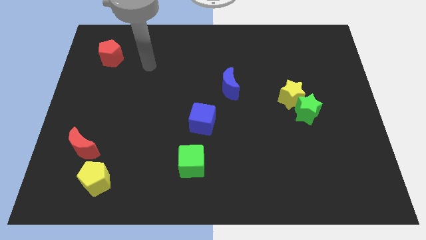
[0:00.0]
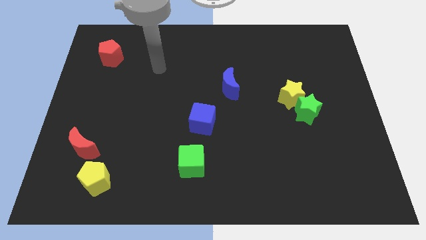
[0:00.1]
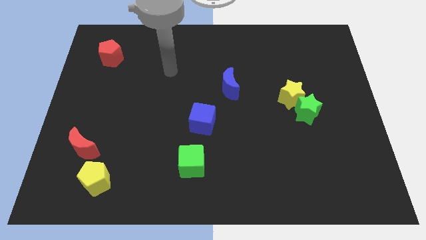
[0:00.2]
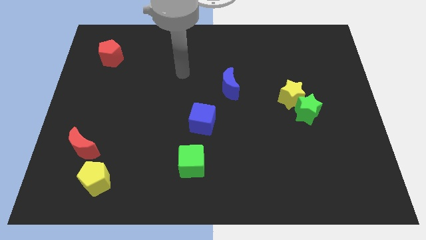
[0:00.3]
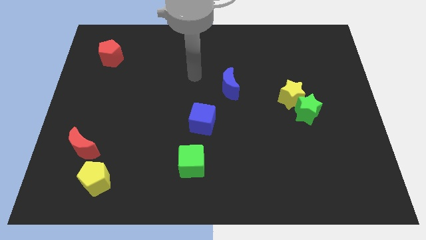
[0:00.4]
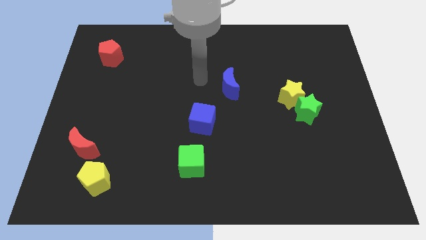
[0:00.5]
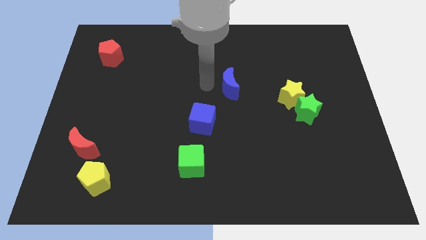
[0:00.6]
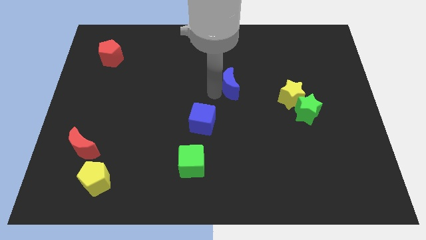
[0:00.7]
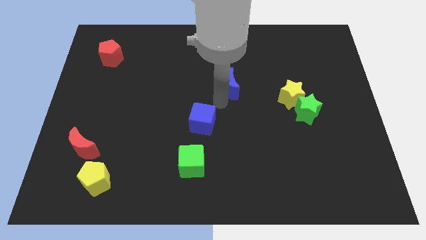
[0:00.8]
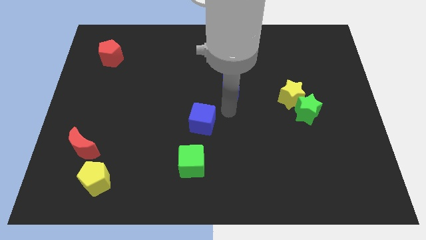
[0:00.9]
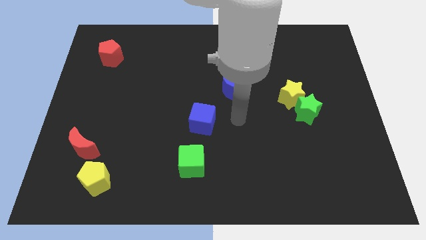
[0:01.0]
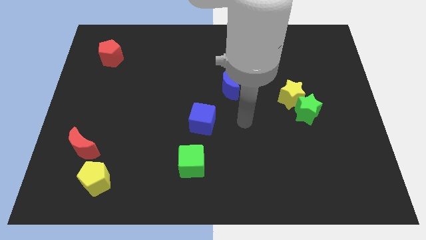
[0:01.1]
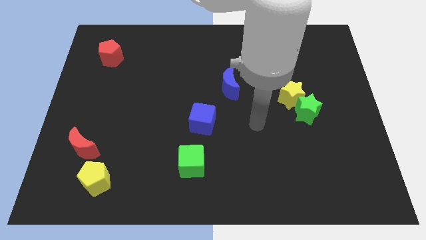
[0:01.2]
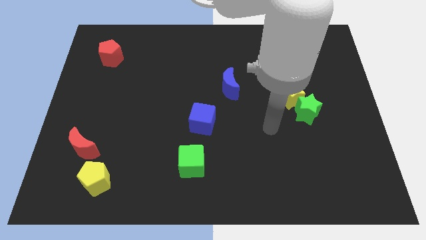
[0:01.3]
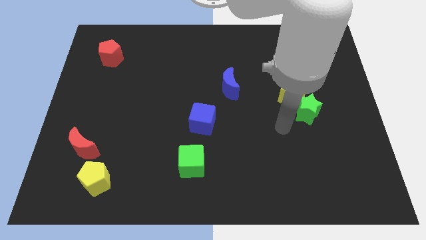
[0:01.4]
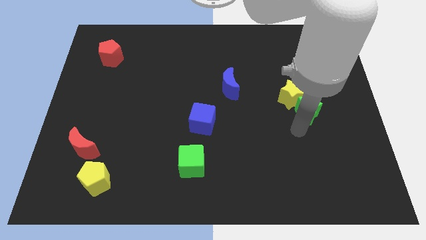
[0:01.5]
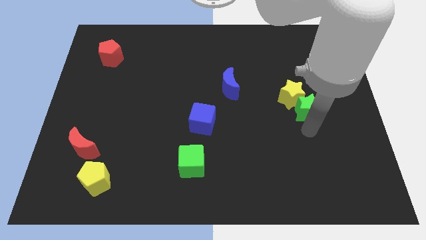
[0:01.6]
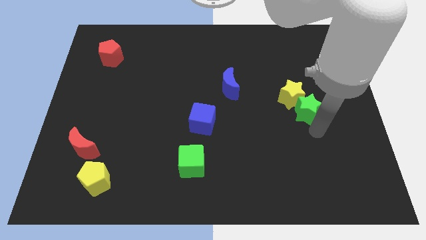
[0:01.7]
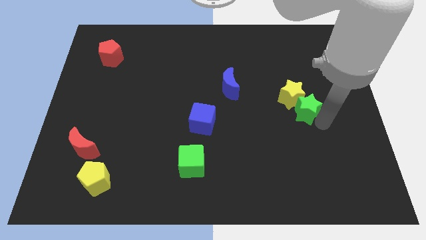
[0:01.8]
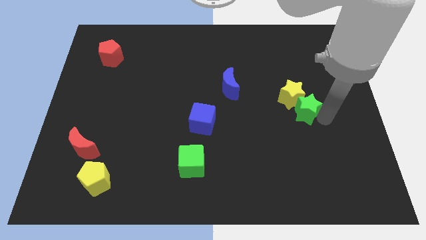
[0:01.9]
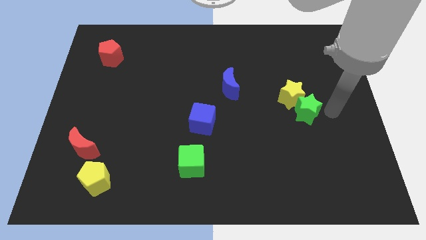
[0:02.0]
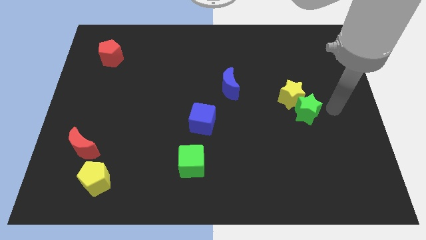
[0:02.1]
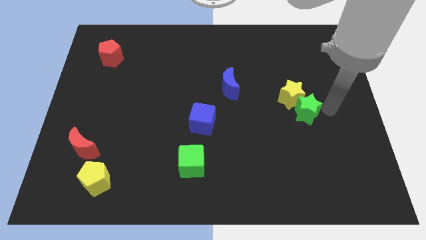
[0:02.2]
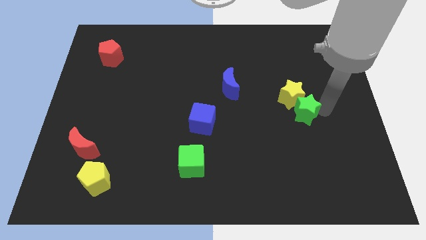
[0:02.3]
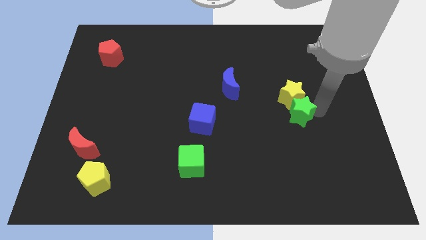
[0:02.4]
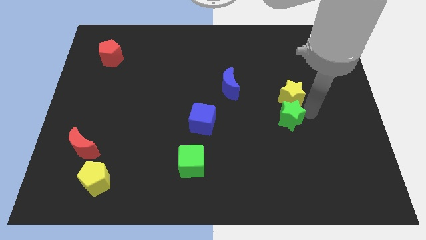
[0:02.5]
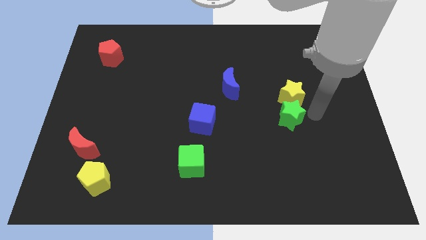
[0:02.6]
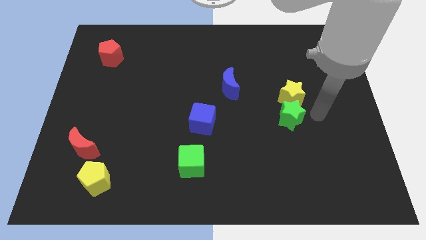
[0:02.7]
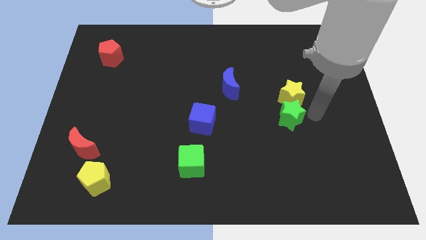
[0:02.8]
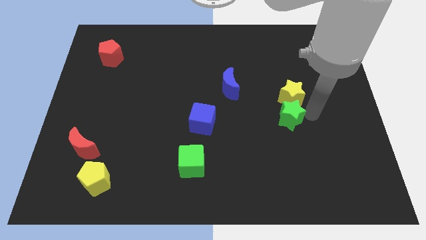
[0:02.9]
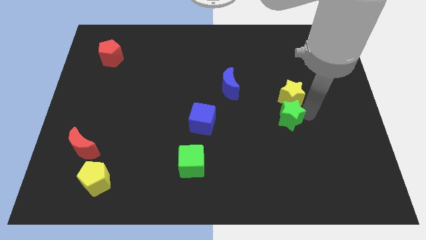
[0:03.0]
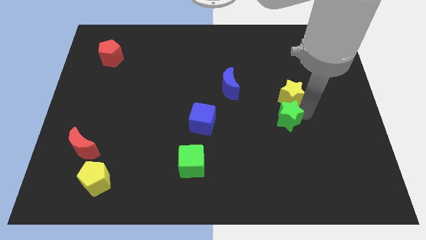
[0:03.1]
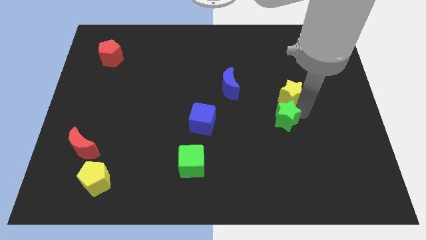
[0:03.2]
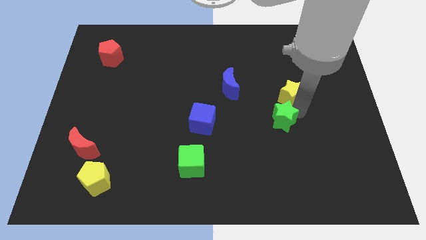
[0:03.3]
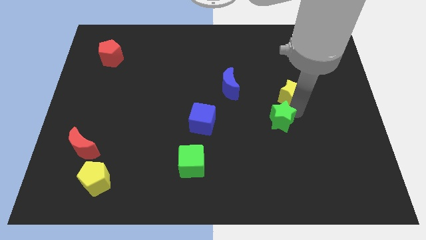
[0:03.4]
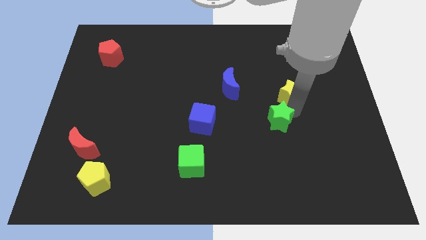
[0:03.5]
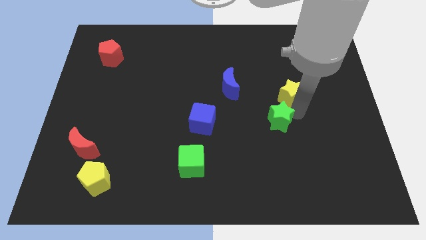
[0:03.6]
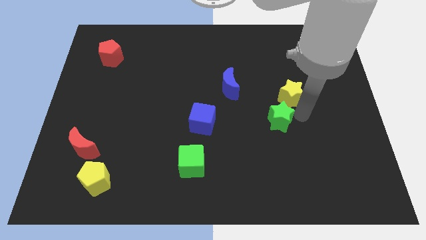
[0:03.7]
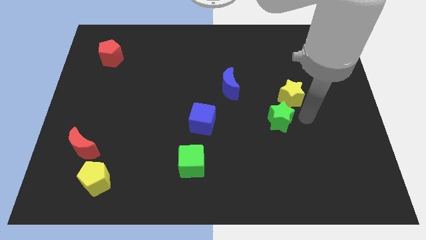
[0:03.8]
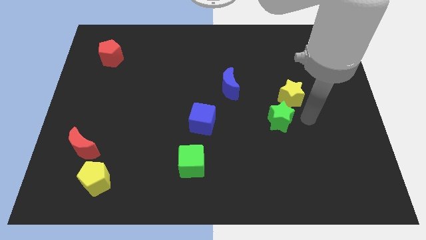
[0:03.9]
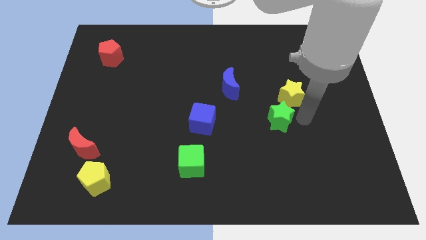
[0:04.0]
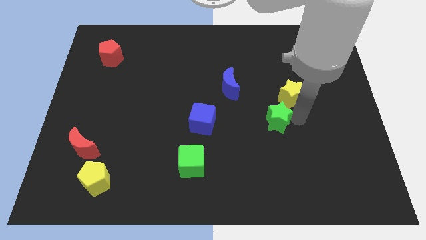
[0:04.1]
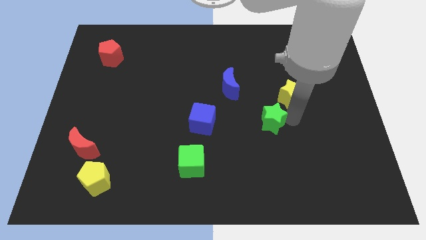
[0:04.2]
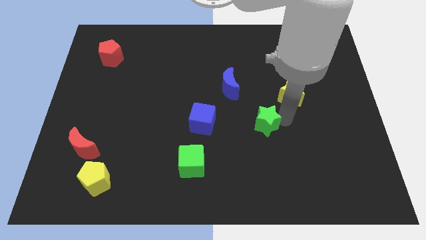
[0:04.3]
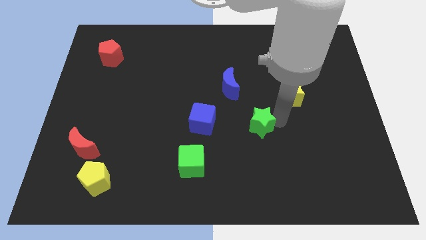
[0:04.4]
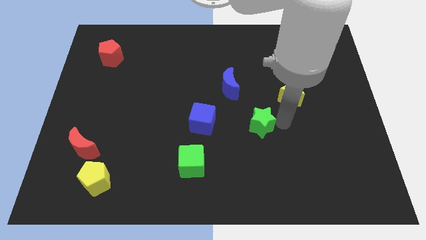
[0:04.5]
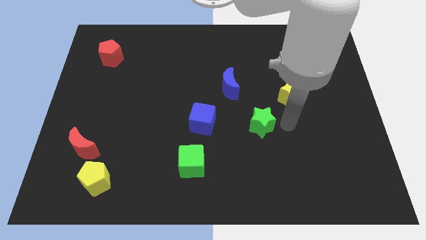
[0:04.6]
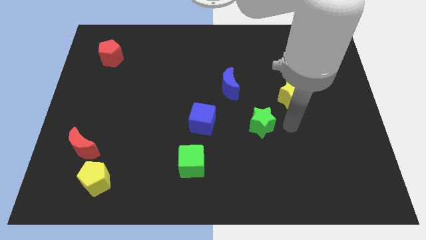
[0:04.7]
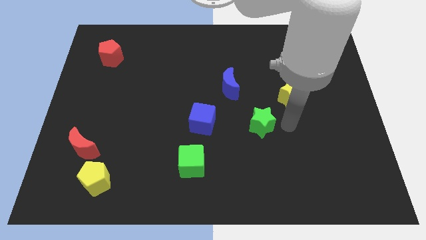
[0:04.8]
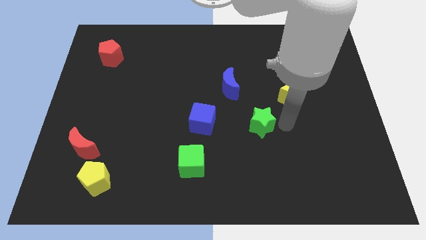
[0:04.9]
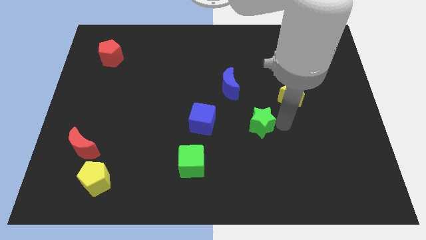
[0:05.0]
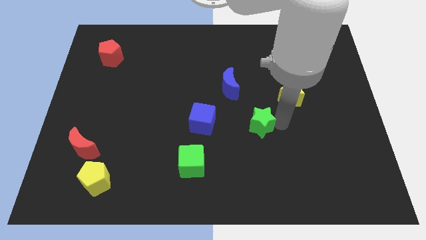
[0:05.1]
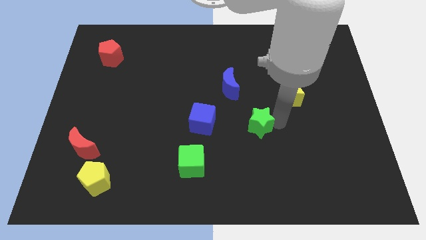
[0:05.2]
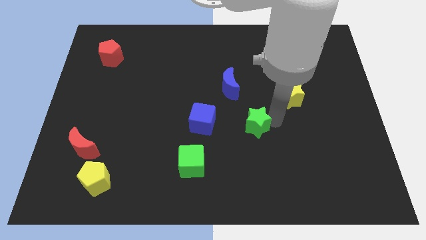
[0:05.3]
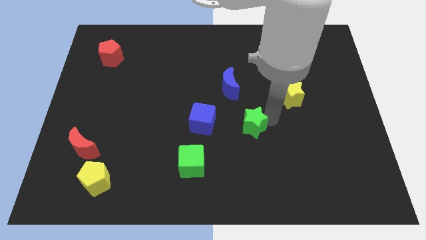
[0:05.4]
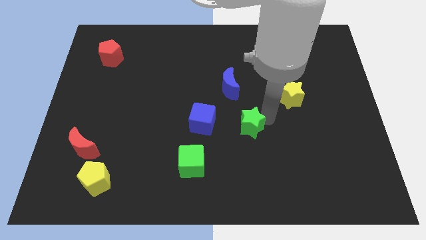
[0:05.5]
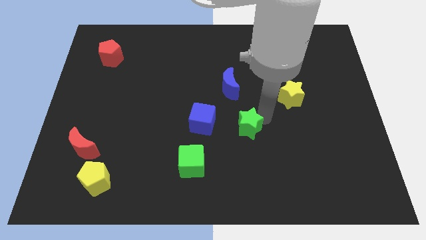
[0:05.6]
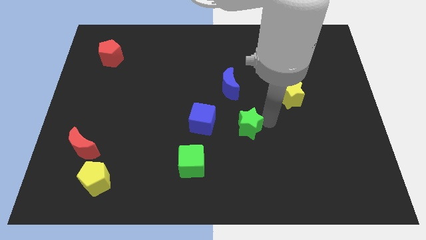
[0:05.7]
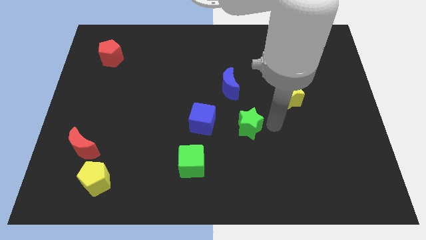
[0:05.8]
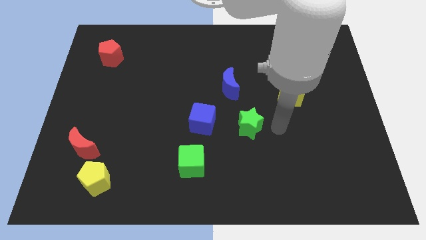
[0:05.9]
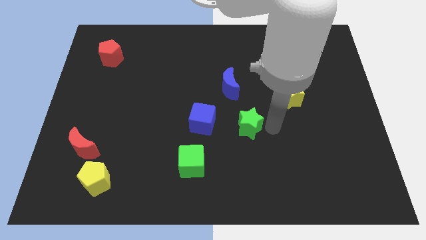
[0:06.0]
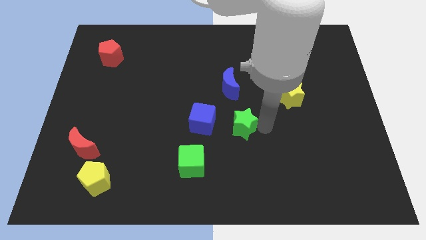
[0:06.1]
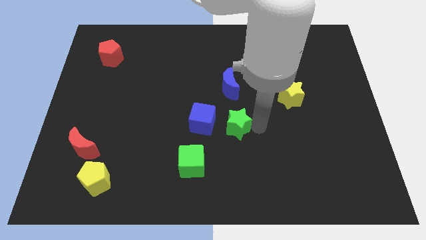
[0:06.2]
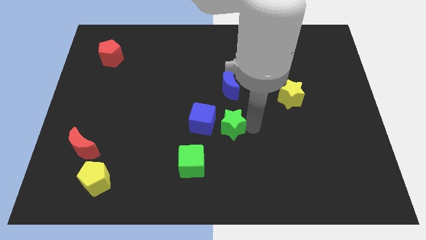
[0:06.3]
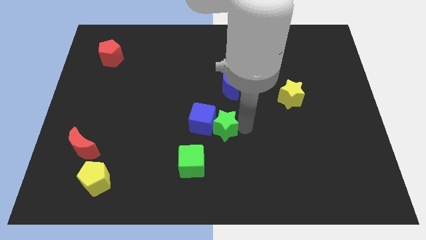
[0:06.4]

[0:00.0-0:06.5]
put the green star close to the blue cube

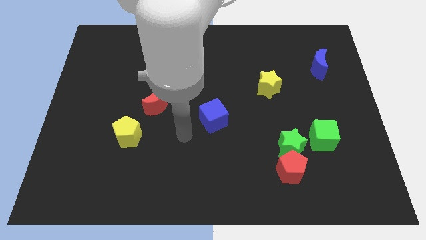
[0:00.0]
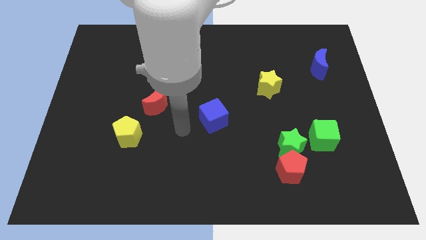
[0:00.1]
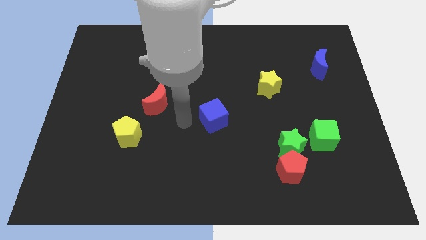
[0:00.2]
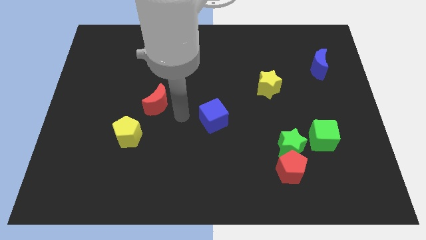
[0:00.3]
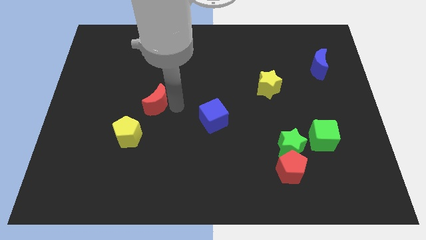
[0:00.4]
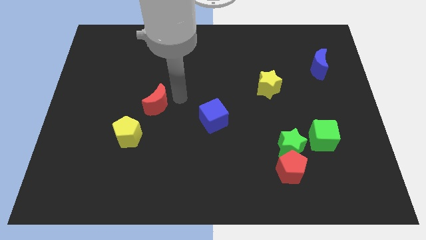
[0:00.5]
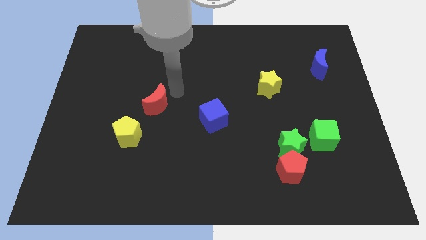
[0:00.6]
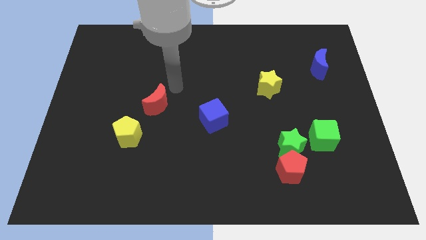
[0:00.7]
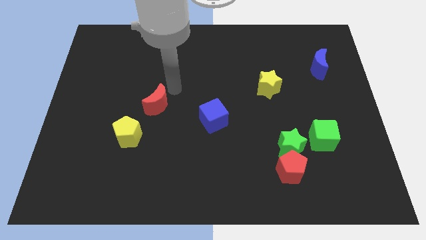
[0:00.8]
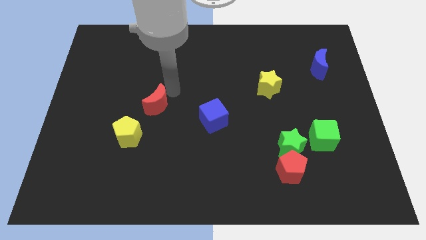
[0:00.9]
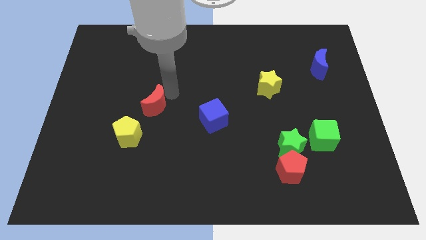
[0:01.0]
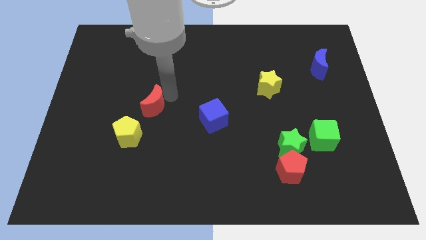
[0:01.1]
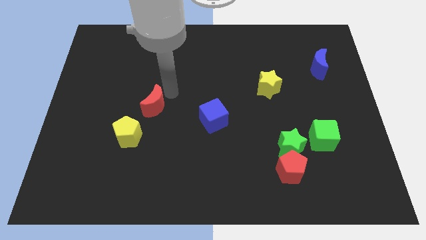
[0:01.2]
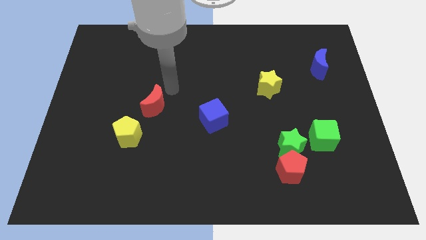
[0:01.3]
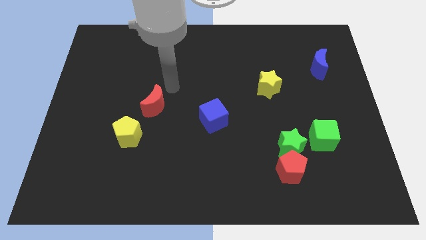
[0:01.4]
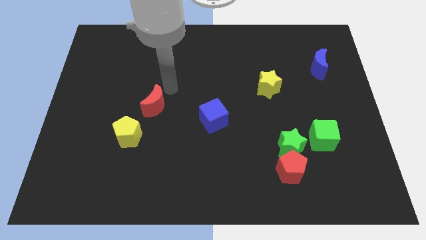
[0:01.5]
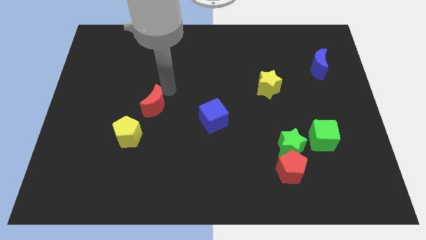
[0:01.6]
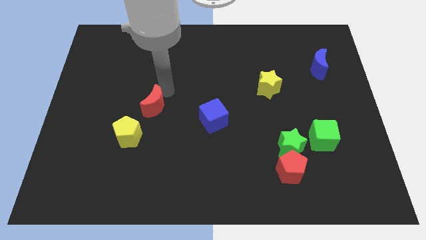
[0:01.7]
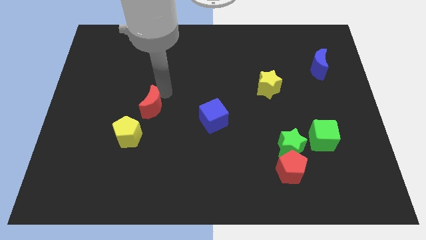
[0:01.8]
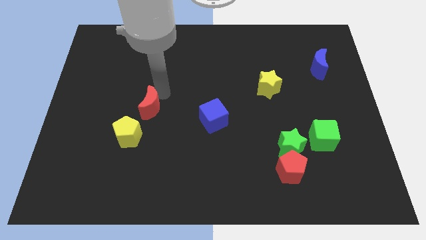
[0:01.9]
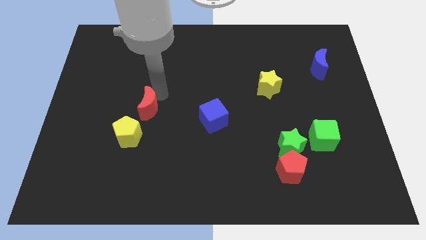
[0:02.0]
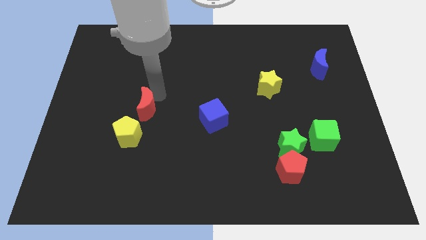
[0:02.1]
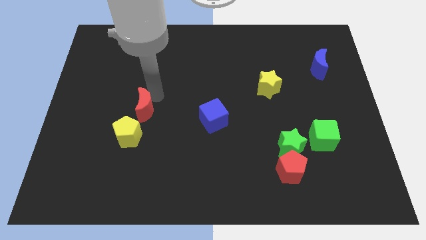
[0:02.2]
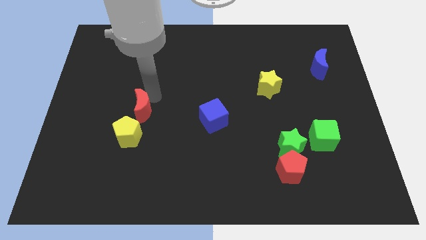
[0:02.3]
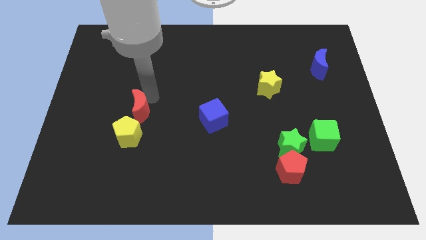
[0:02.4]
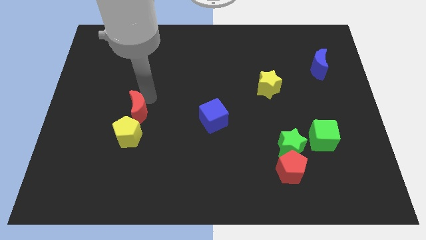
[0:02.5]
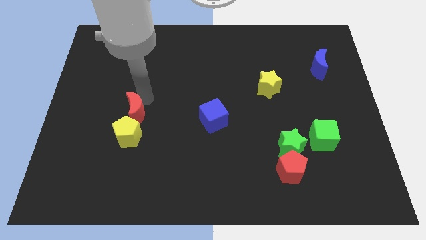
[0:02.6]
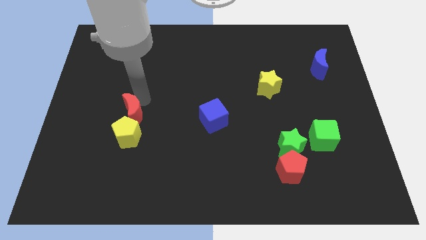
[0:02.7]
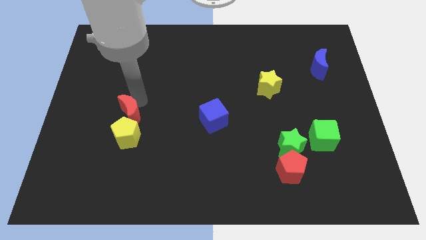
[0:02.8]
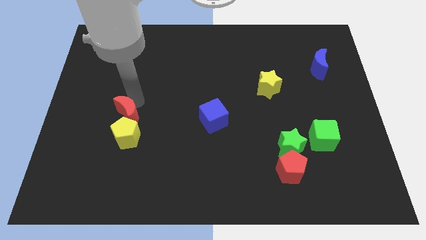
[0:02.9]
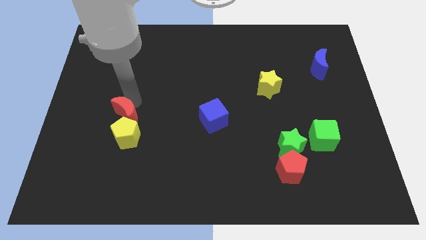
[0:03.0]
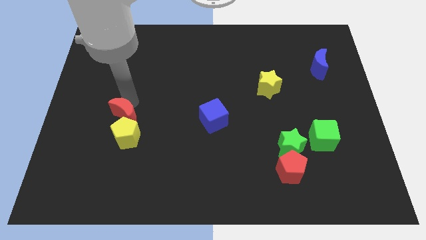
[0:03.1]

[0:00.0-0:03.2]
put the red moon close to the yellow pentagon
